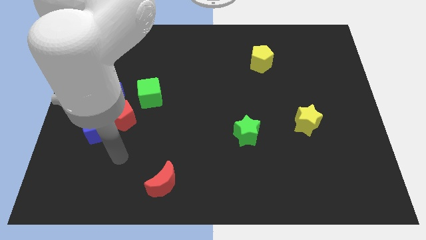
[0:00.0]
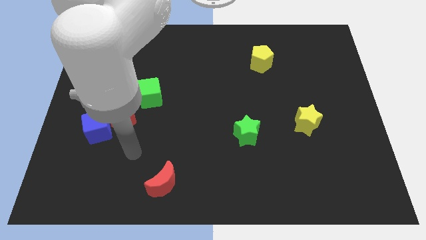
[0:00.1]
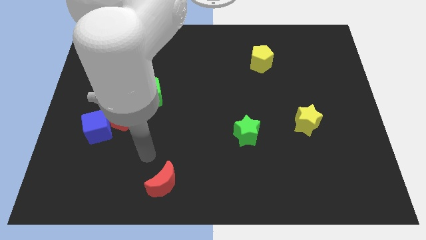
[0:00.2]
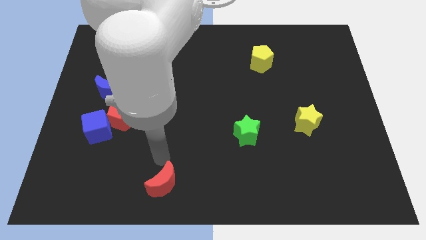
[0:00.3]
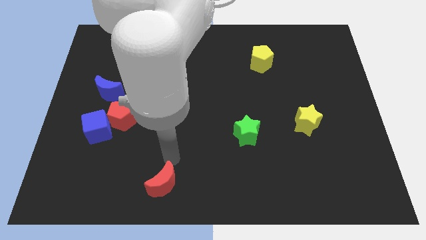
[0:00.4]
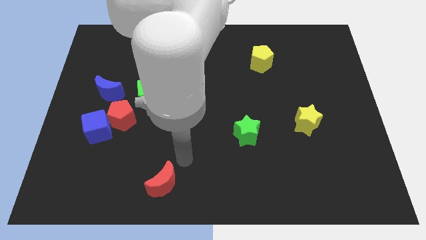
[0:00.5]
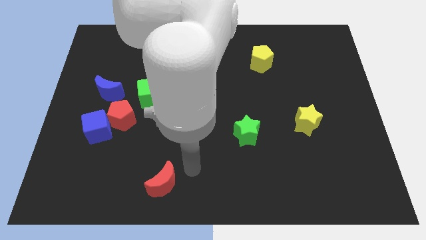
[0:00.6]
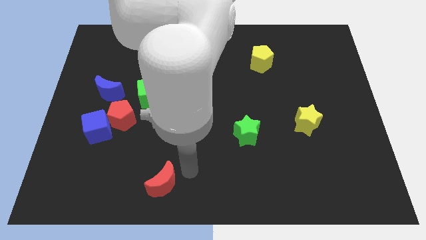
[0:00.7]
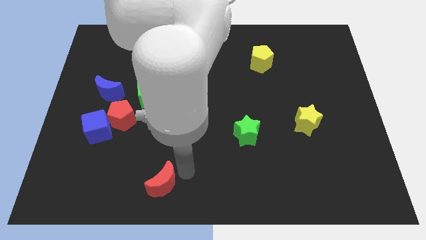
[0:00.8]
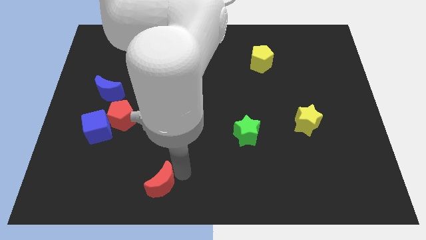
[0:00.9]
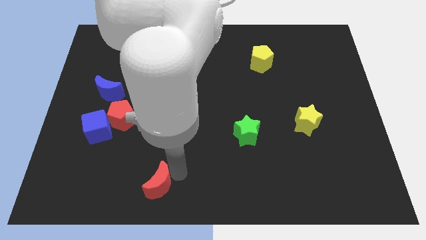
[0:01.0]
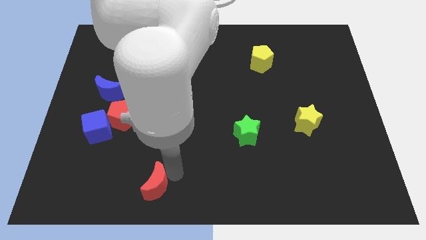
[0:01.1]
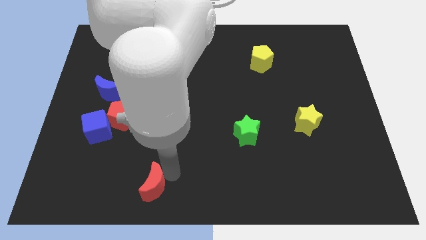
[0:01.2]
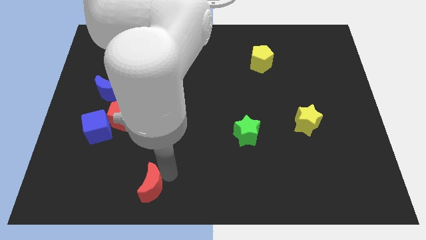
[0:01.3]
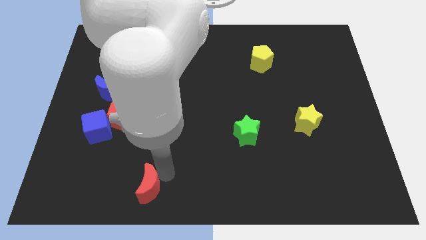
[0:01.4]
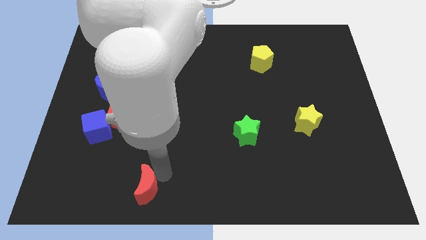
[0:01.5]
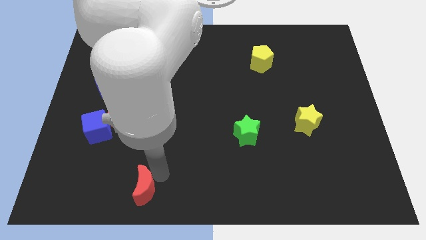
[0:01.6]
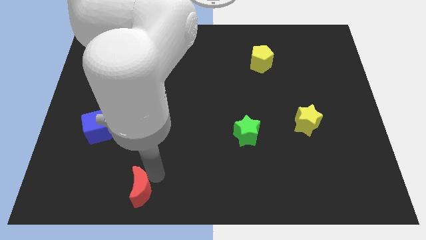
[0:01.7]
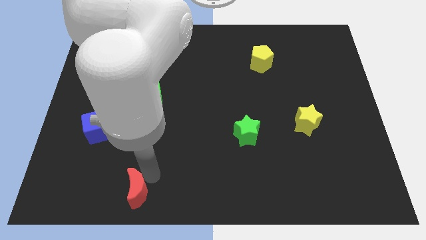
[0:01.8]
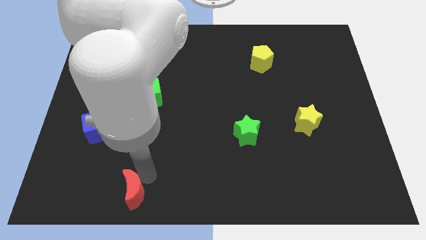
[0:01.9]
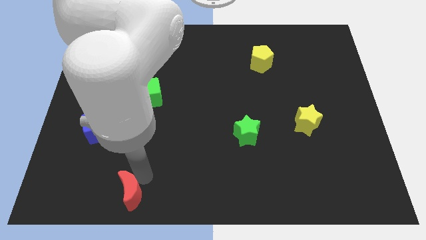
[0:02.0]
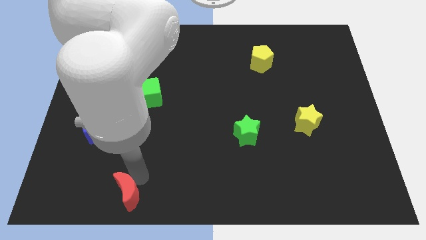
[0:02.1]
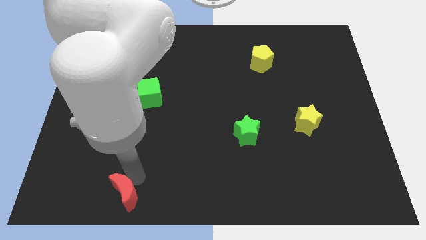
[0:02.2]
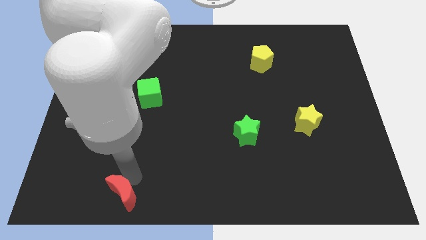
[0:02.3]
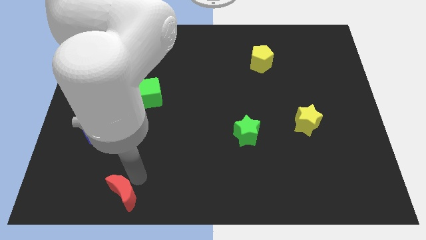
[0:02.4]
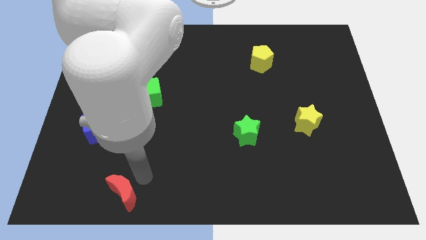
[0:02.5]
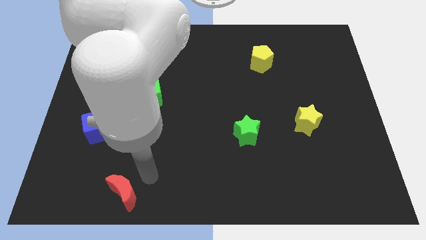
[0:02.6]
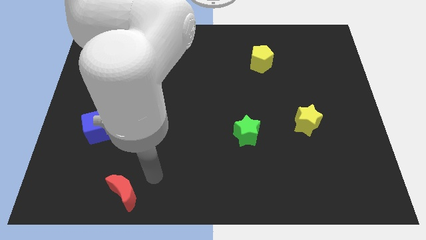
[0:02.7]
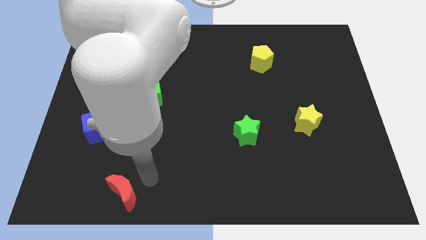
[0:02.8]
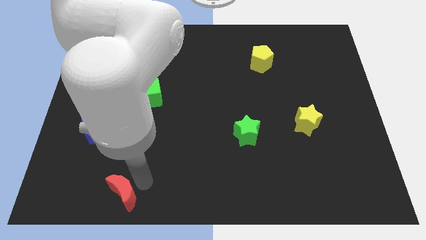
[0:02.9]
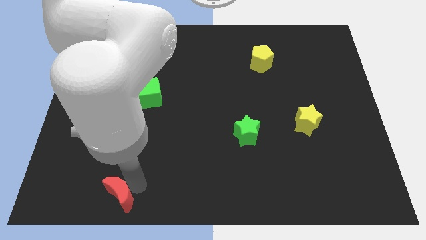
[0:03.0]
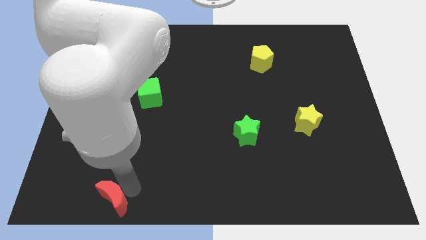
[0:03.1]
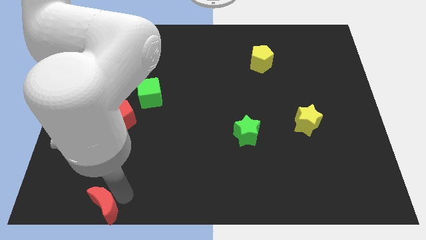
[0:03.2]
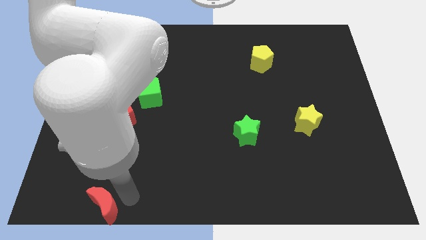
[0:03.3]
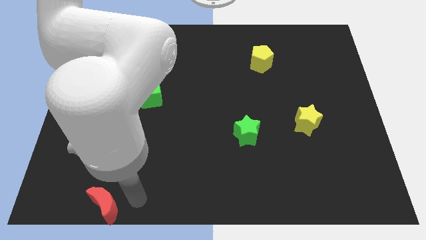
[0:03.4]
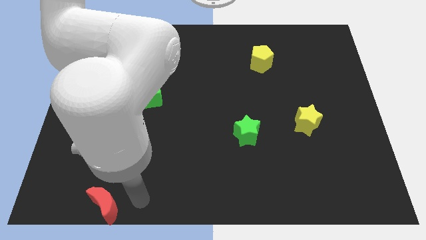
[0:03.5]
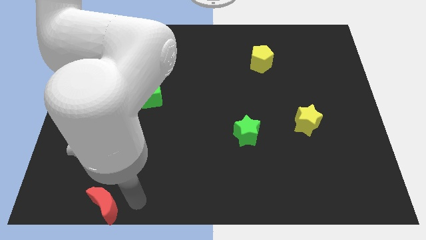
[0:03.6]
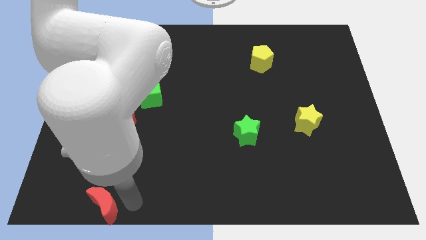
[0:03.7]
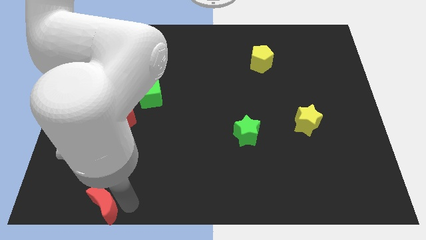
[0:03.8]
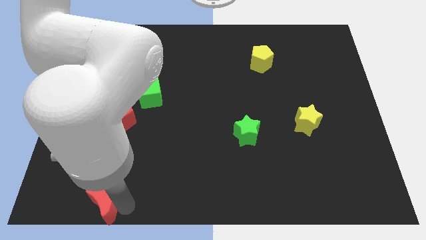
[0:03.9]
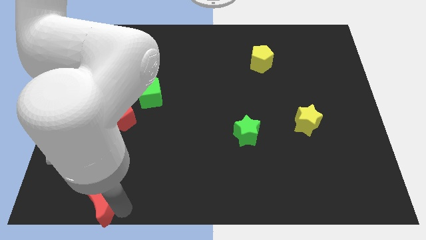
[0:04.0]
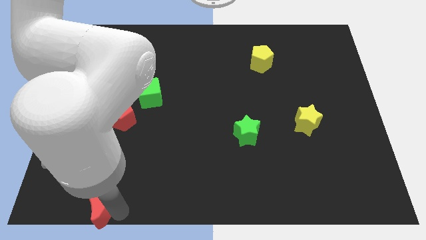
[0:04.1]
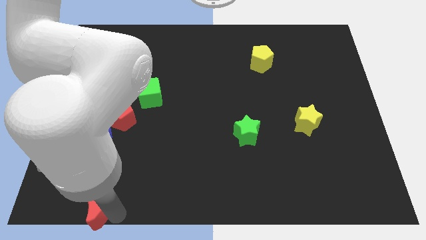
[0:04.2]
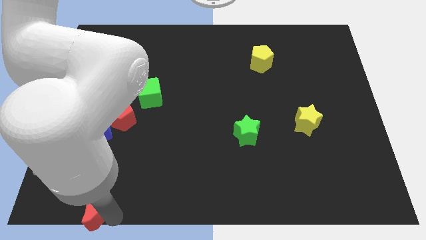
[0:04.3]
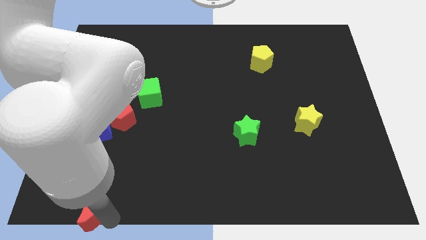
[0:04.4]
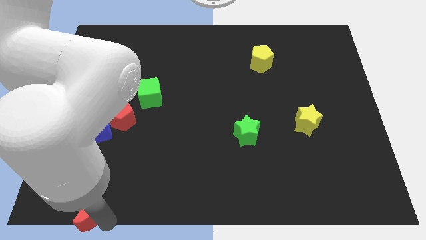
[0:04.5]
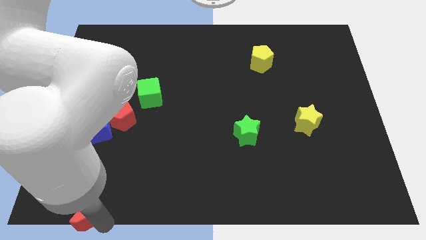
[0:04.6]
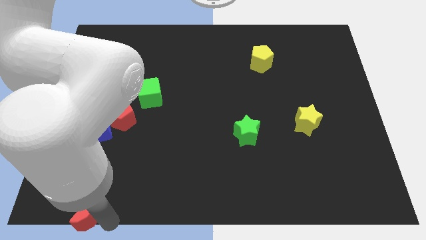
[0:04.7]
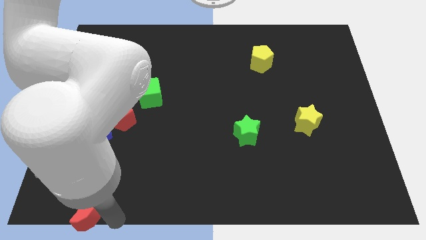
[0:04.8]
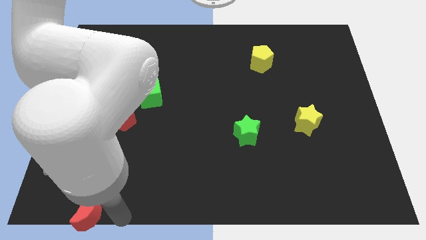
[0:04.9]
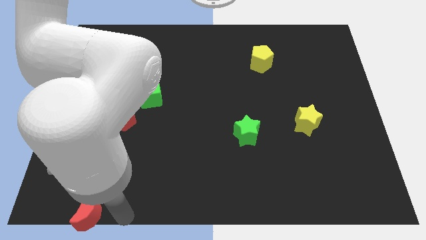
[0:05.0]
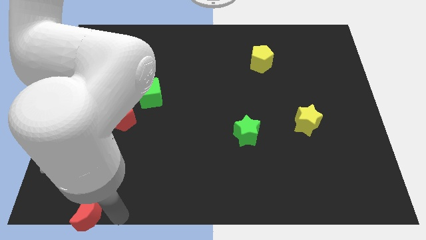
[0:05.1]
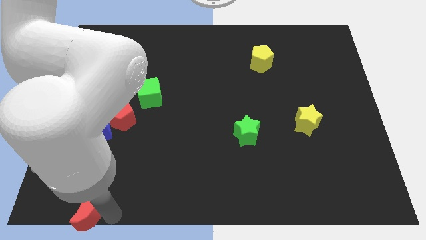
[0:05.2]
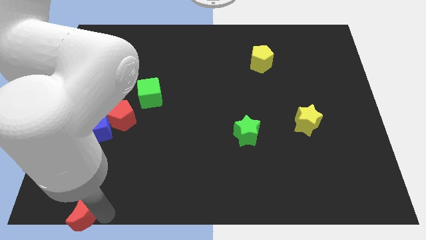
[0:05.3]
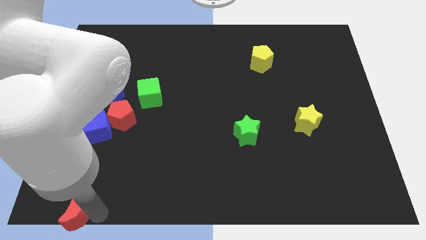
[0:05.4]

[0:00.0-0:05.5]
slide the red moon to the bottom left corner
